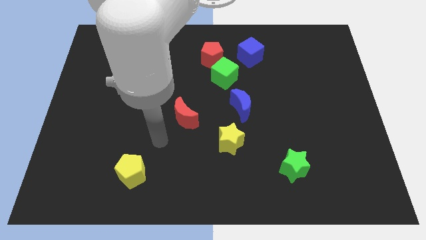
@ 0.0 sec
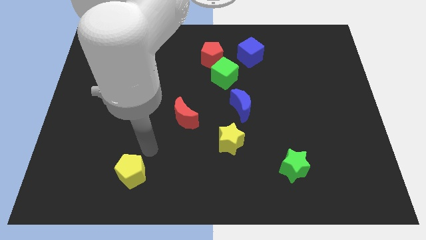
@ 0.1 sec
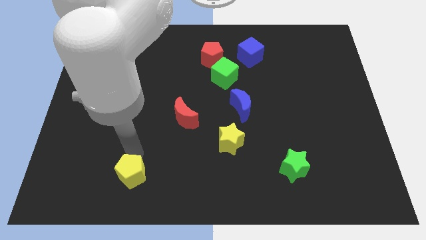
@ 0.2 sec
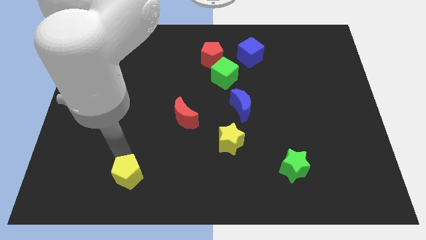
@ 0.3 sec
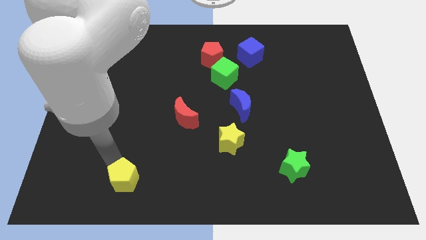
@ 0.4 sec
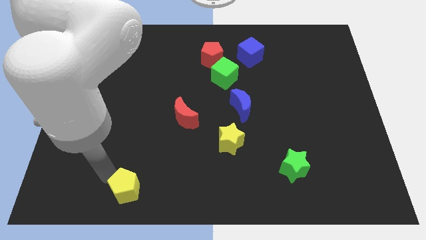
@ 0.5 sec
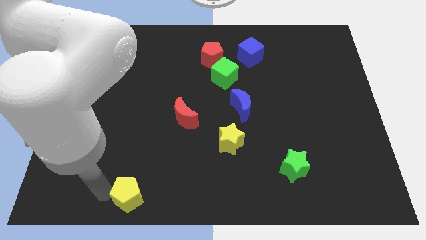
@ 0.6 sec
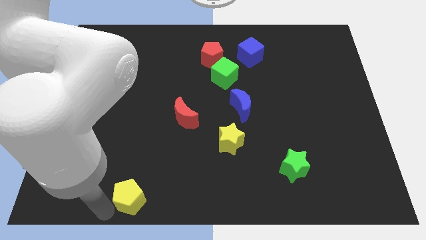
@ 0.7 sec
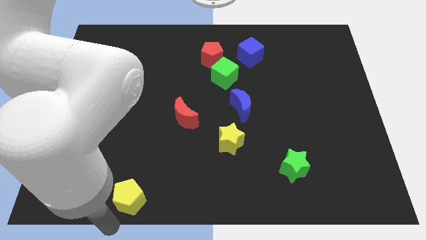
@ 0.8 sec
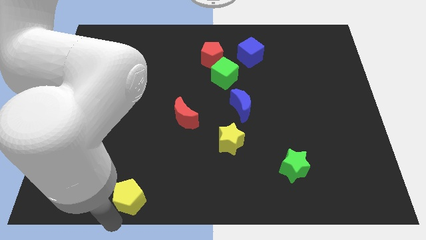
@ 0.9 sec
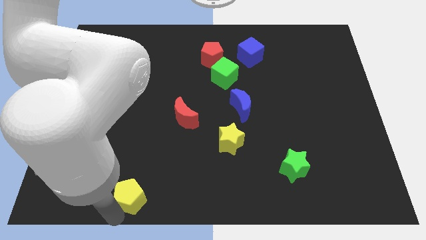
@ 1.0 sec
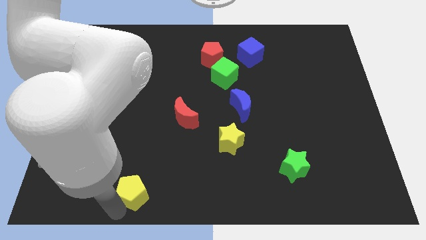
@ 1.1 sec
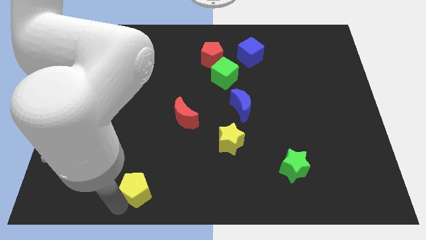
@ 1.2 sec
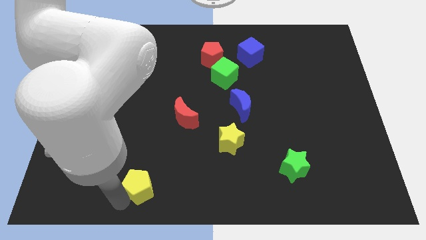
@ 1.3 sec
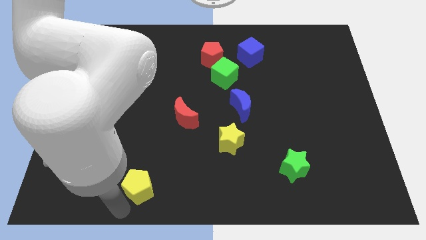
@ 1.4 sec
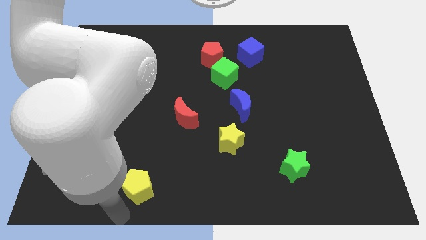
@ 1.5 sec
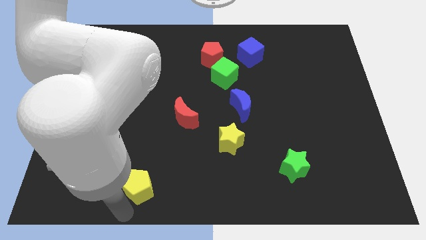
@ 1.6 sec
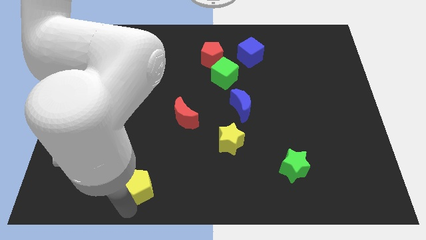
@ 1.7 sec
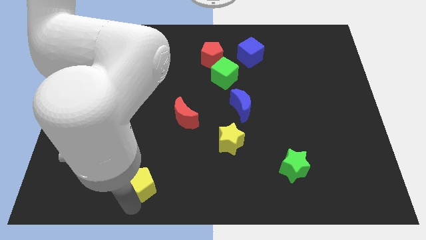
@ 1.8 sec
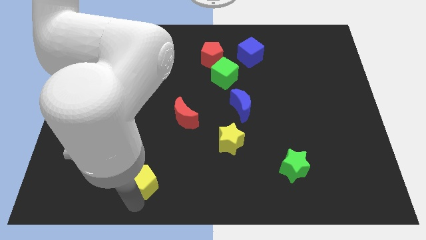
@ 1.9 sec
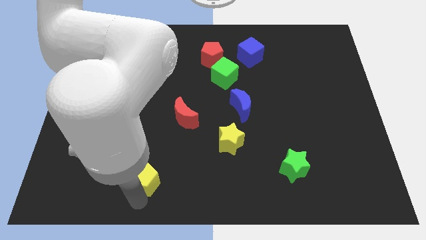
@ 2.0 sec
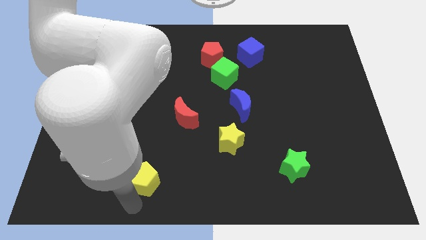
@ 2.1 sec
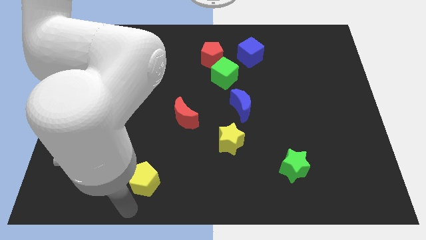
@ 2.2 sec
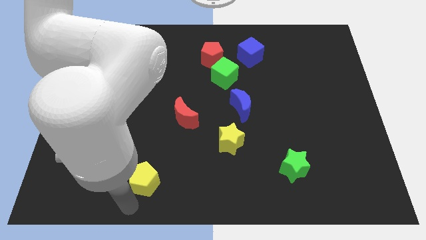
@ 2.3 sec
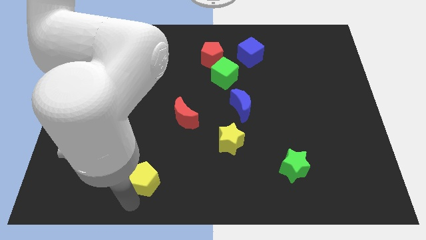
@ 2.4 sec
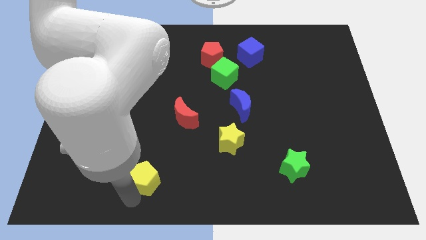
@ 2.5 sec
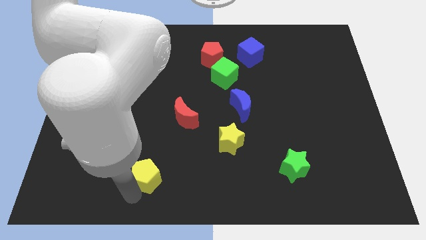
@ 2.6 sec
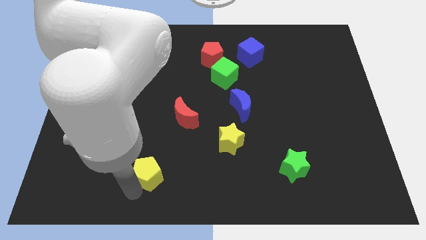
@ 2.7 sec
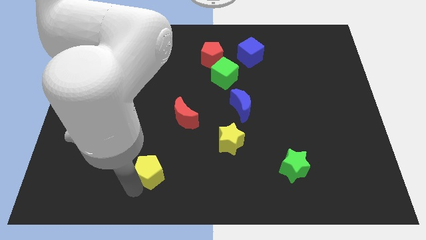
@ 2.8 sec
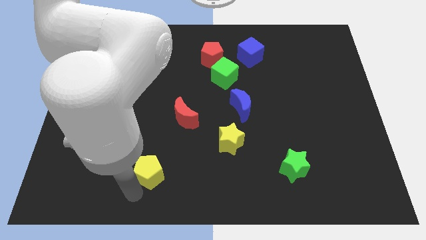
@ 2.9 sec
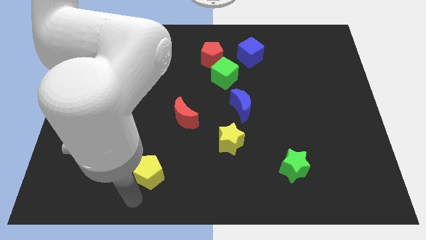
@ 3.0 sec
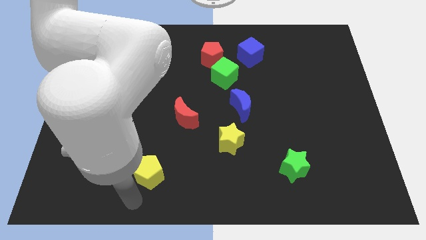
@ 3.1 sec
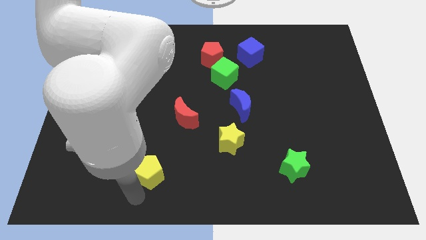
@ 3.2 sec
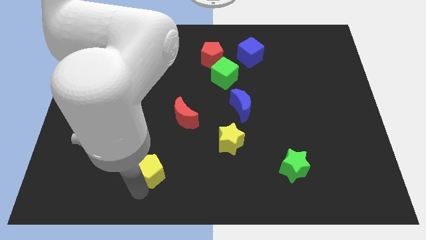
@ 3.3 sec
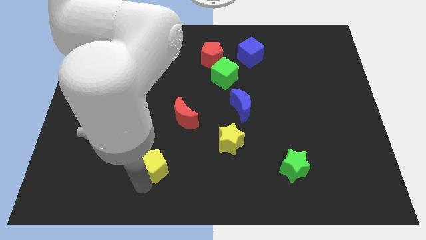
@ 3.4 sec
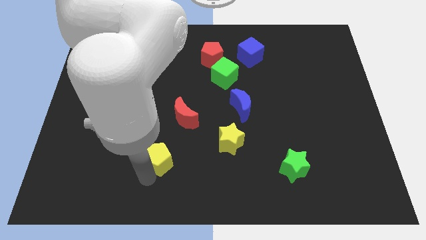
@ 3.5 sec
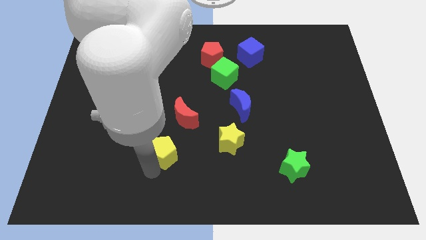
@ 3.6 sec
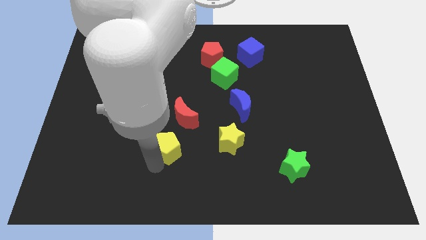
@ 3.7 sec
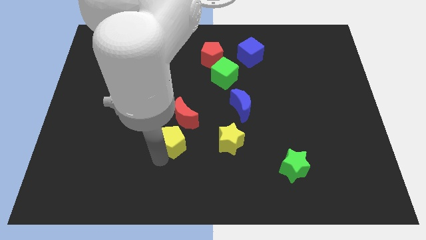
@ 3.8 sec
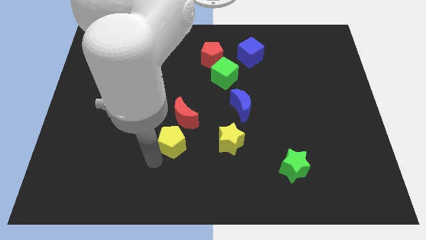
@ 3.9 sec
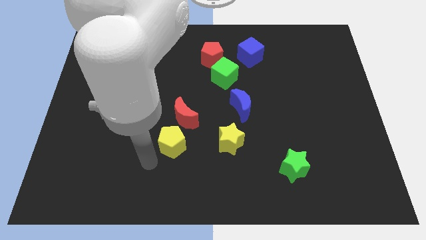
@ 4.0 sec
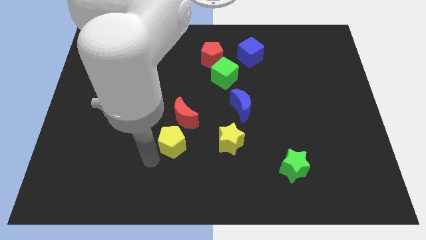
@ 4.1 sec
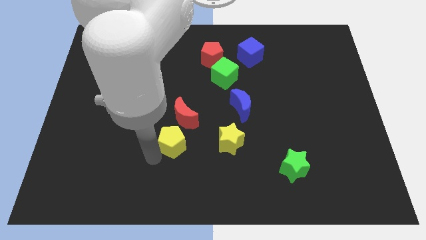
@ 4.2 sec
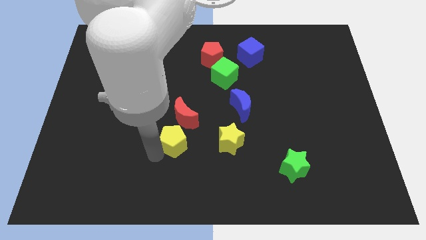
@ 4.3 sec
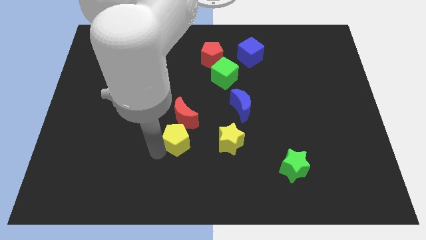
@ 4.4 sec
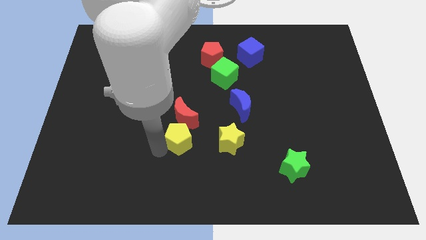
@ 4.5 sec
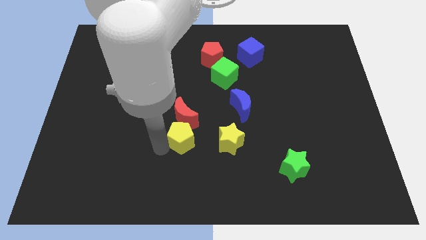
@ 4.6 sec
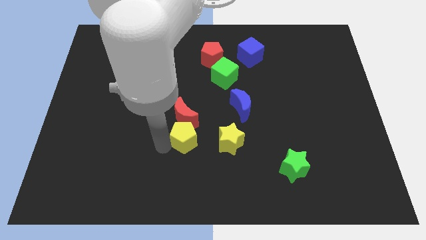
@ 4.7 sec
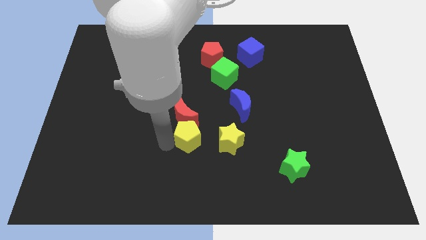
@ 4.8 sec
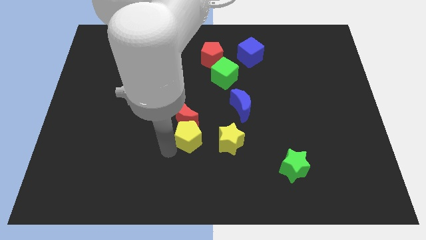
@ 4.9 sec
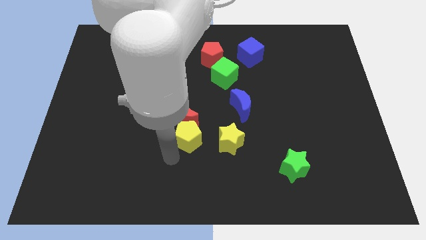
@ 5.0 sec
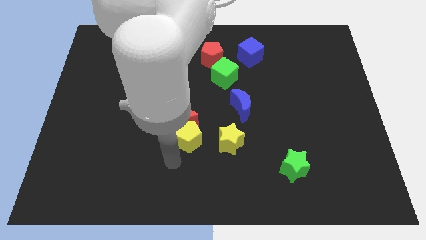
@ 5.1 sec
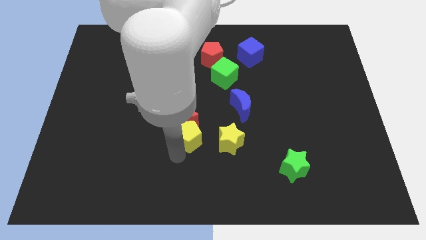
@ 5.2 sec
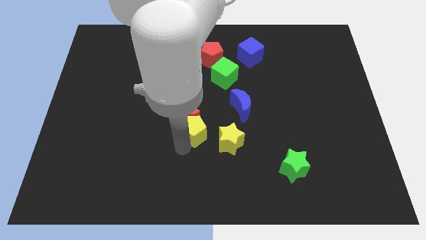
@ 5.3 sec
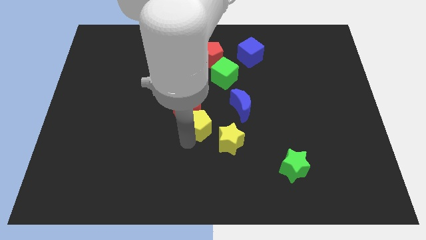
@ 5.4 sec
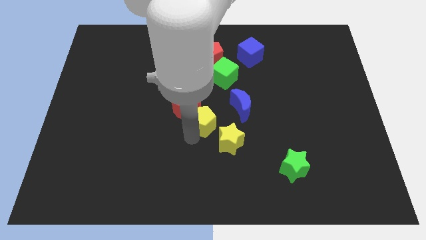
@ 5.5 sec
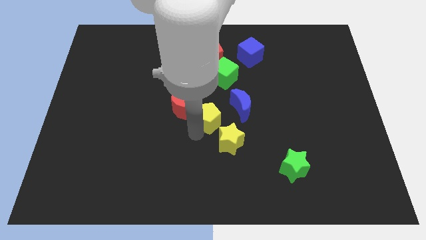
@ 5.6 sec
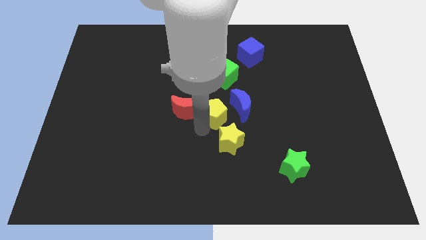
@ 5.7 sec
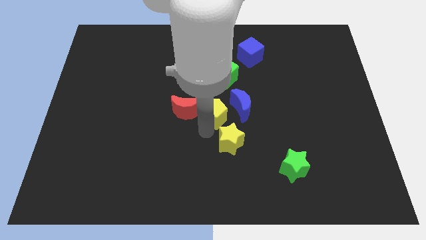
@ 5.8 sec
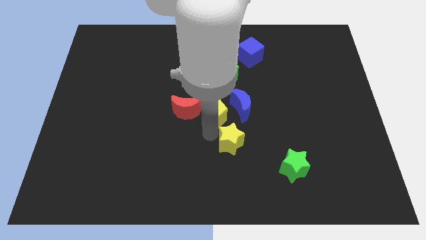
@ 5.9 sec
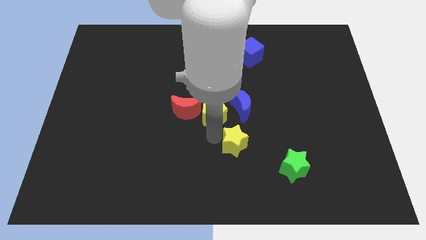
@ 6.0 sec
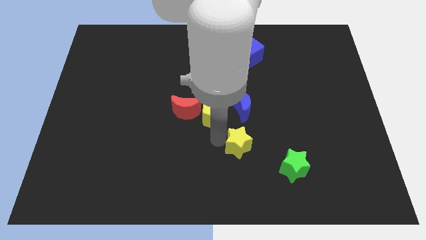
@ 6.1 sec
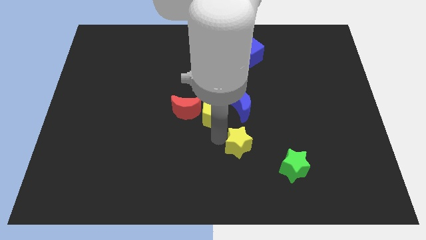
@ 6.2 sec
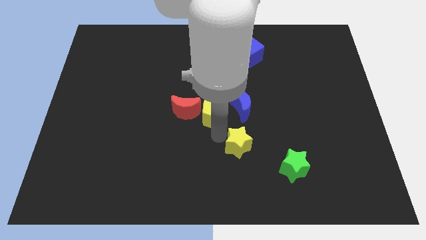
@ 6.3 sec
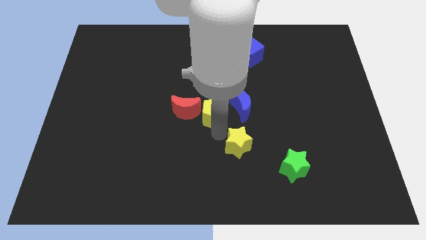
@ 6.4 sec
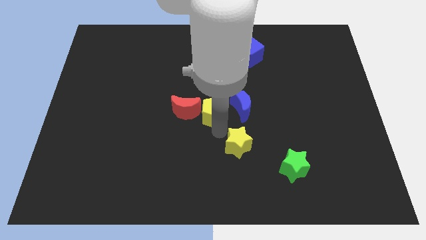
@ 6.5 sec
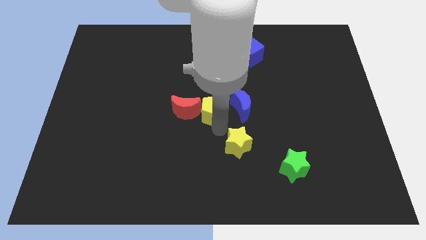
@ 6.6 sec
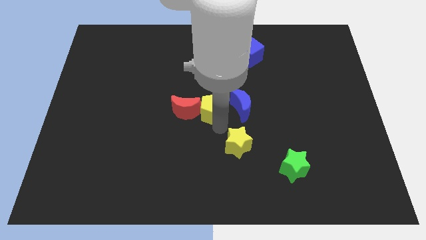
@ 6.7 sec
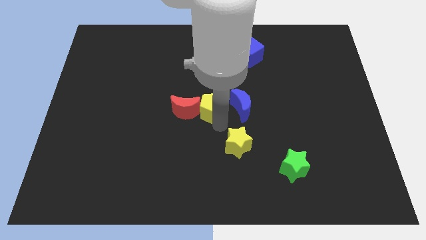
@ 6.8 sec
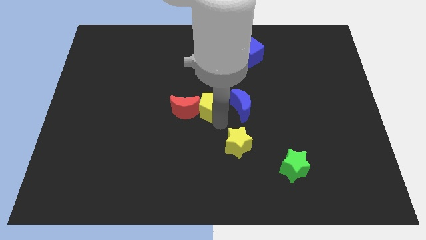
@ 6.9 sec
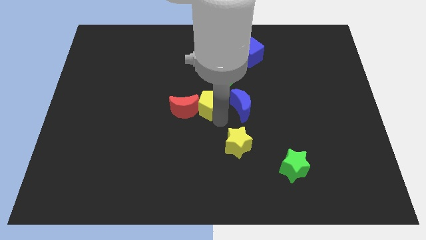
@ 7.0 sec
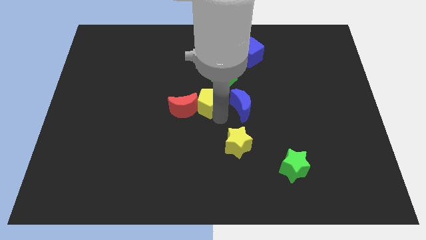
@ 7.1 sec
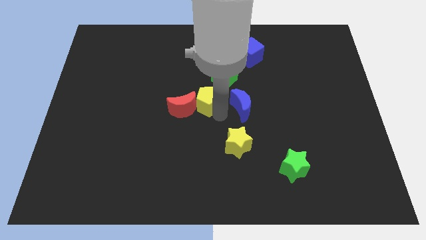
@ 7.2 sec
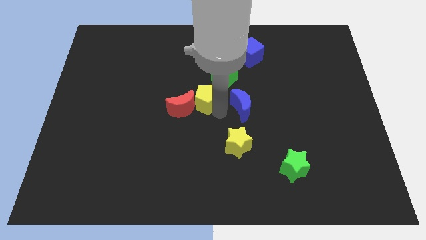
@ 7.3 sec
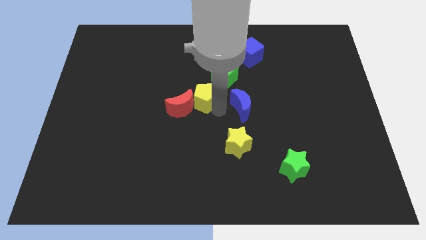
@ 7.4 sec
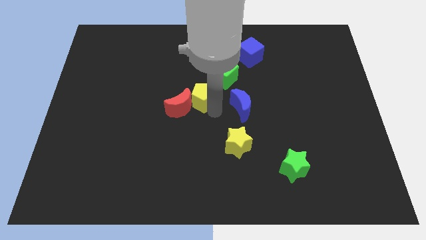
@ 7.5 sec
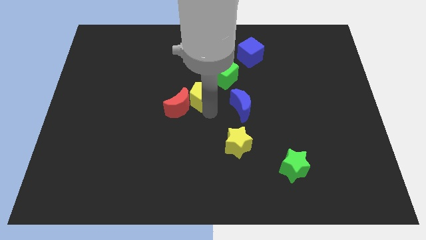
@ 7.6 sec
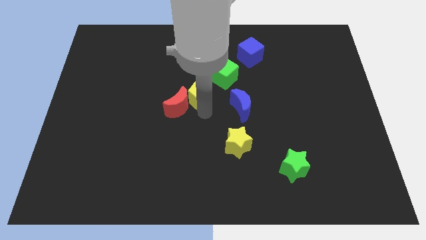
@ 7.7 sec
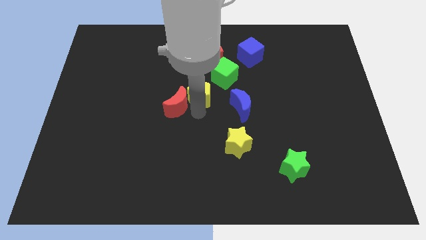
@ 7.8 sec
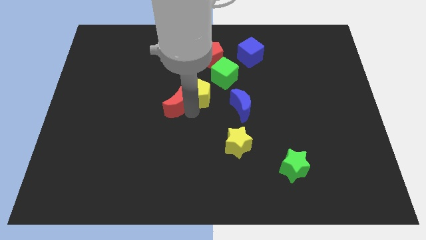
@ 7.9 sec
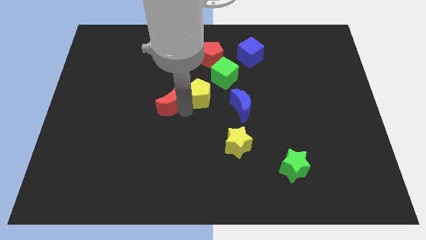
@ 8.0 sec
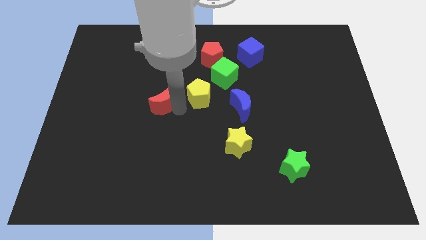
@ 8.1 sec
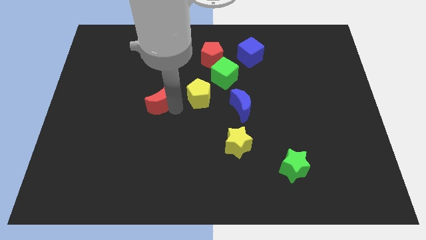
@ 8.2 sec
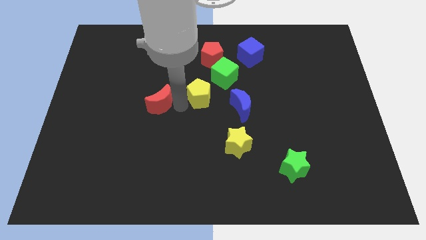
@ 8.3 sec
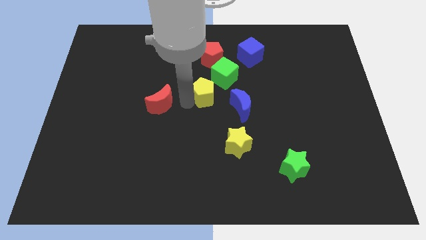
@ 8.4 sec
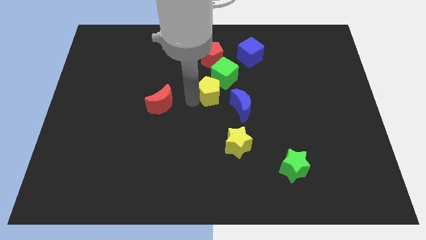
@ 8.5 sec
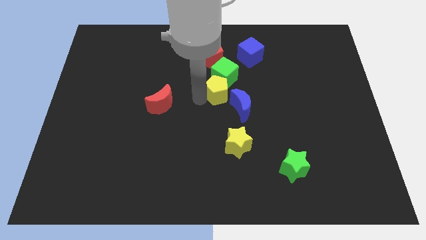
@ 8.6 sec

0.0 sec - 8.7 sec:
move the yellow pentagon close to the green cube
